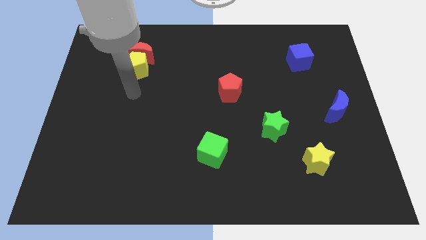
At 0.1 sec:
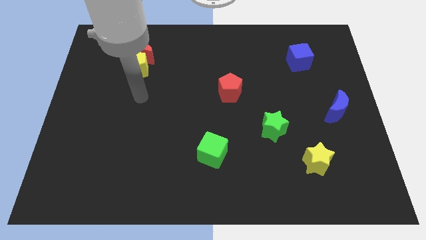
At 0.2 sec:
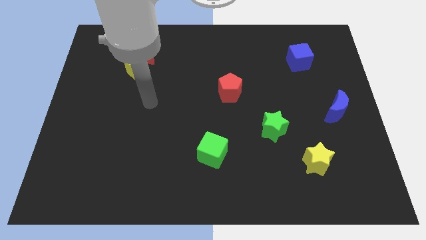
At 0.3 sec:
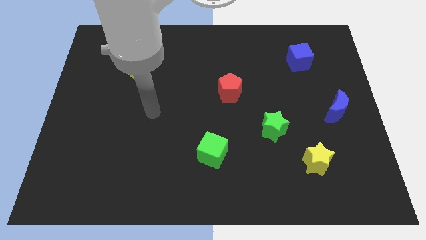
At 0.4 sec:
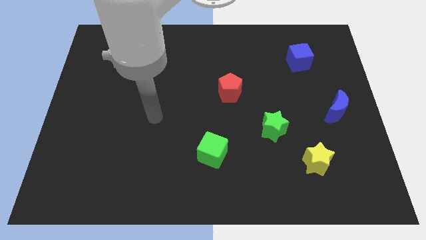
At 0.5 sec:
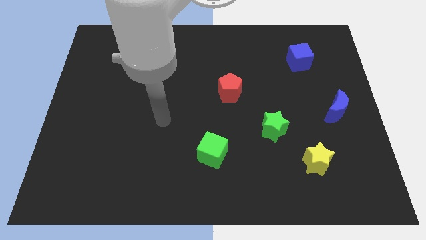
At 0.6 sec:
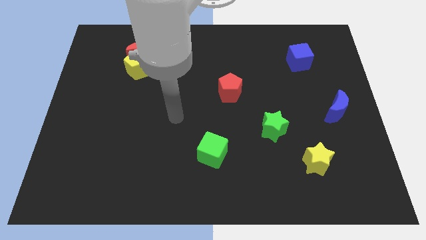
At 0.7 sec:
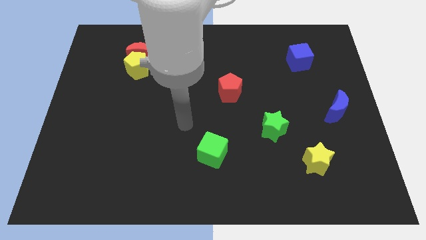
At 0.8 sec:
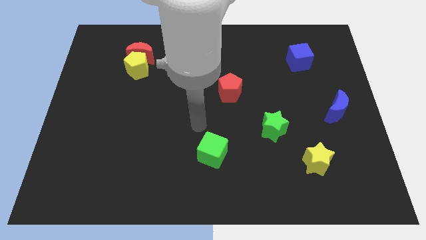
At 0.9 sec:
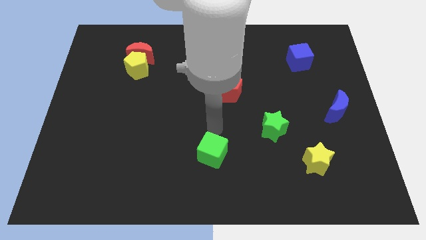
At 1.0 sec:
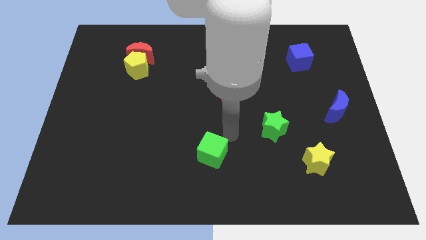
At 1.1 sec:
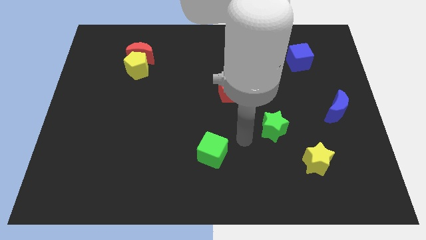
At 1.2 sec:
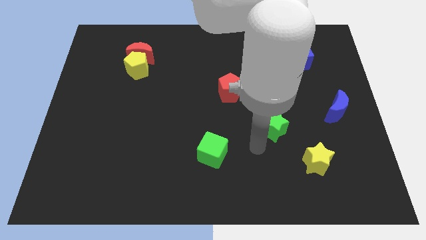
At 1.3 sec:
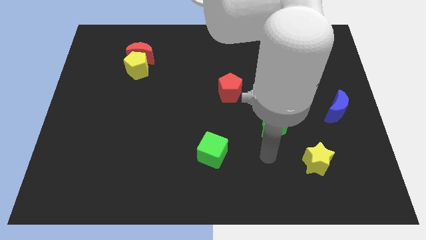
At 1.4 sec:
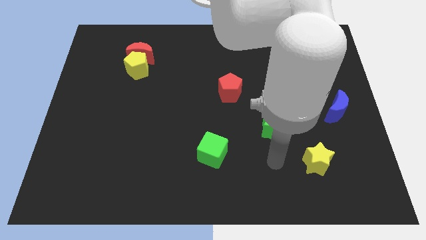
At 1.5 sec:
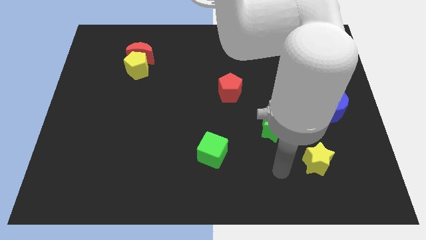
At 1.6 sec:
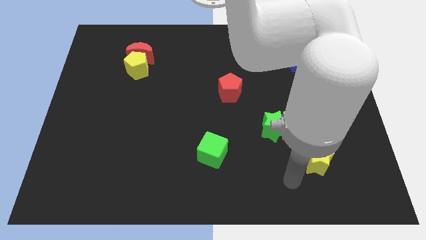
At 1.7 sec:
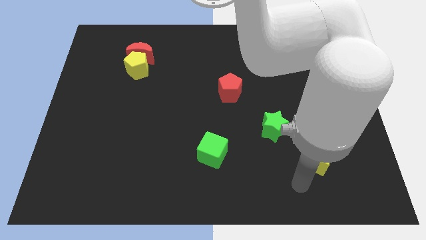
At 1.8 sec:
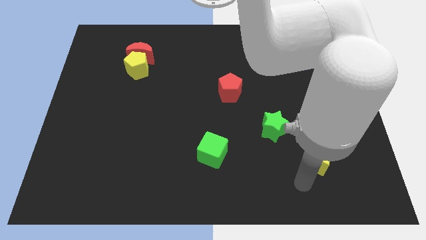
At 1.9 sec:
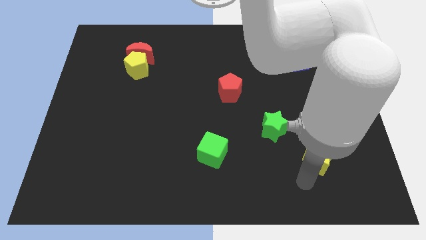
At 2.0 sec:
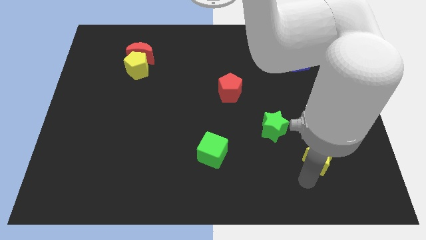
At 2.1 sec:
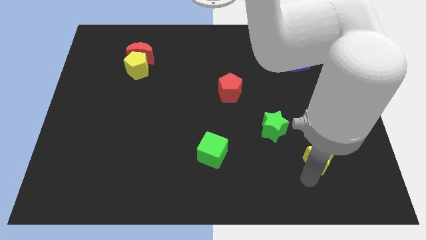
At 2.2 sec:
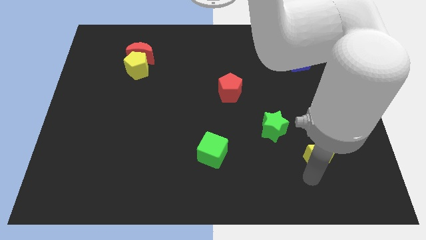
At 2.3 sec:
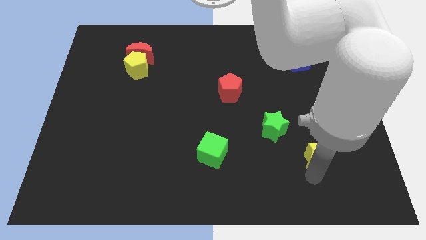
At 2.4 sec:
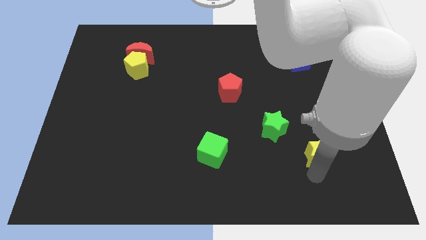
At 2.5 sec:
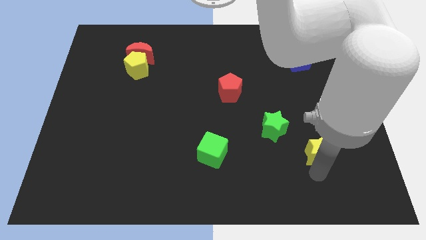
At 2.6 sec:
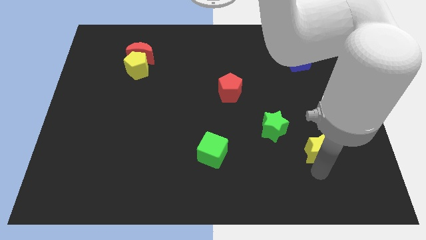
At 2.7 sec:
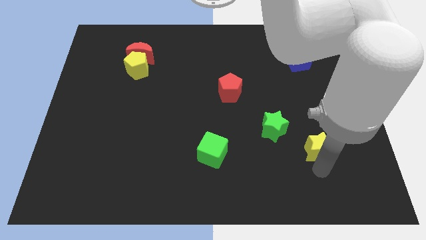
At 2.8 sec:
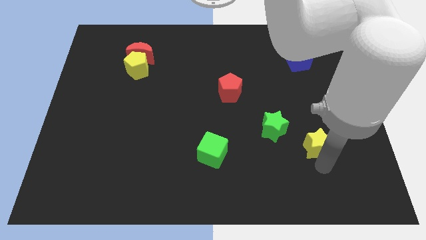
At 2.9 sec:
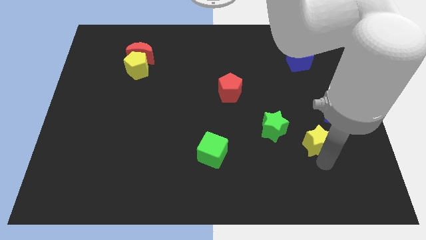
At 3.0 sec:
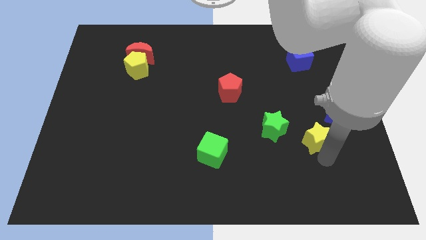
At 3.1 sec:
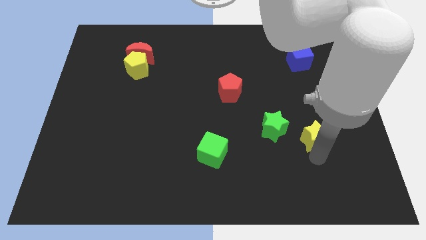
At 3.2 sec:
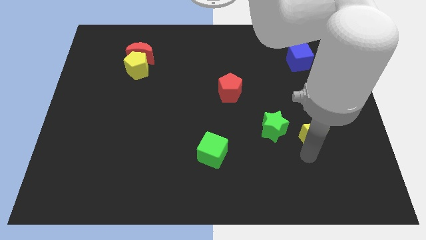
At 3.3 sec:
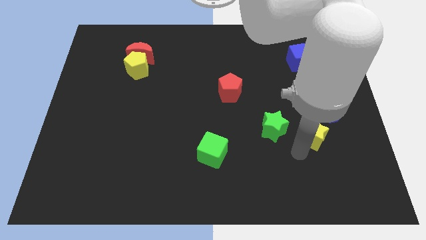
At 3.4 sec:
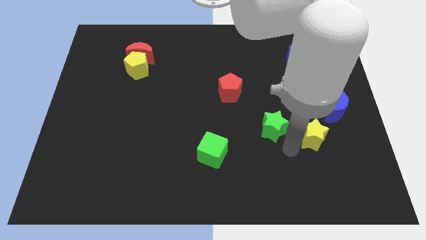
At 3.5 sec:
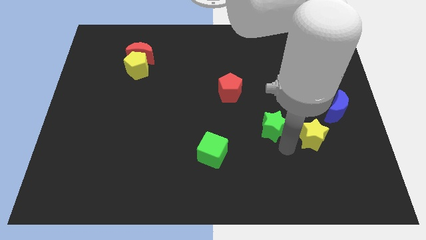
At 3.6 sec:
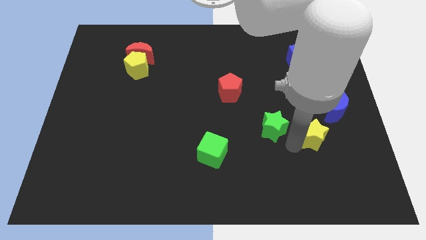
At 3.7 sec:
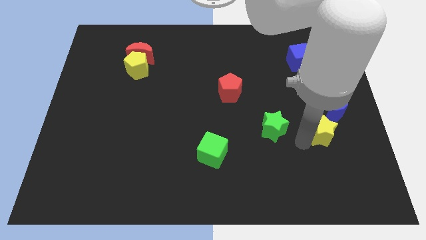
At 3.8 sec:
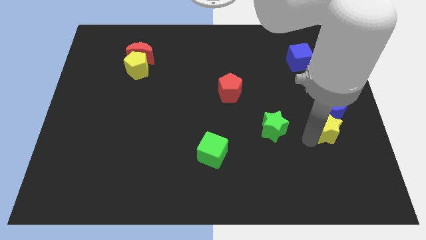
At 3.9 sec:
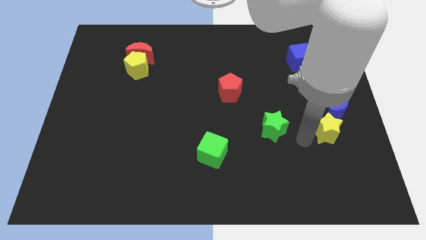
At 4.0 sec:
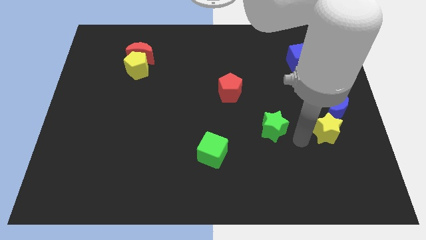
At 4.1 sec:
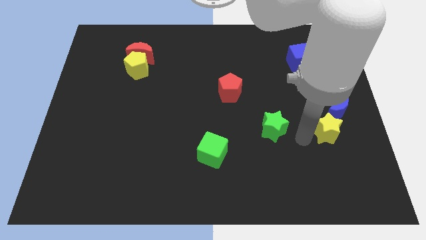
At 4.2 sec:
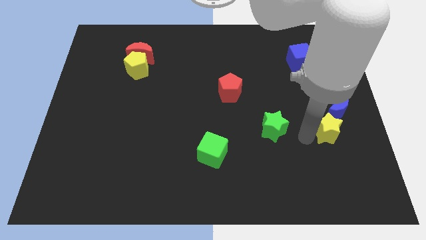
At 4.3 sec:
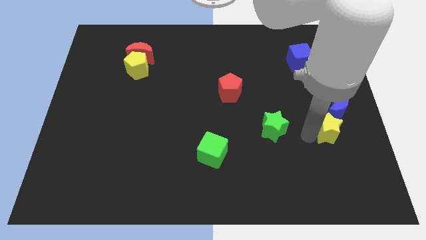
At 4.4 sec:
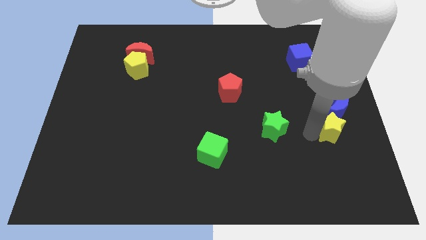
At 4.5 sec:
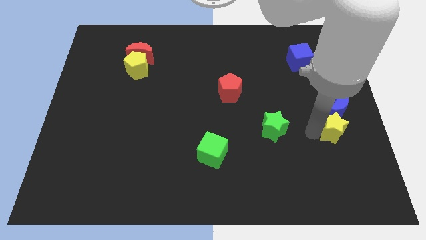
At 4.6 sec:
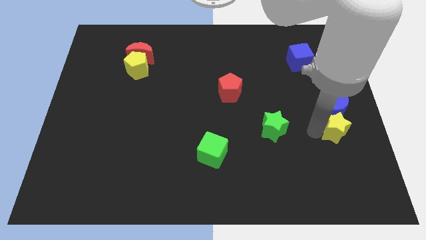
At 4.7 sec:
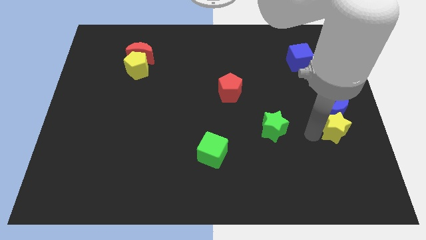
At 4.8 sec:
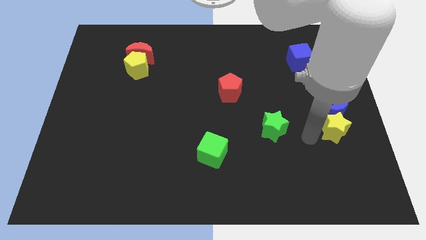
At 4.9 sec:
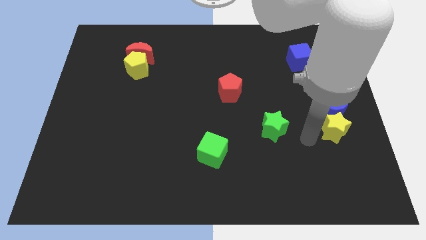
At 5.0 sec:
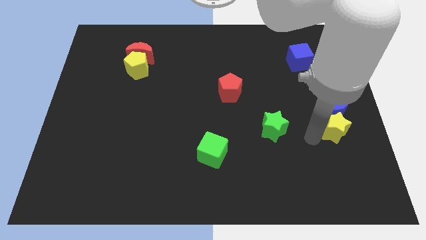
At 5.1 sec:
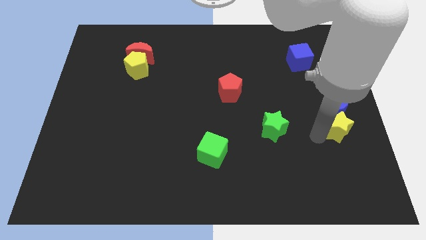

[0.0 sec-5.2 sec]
push the yellow star to the right side of the board

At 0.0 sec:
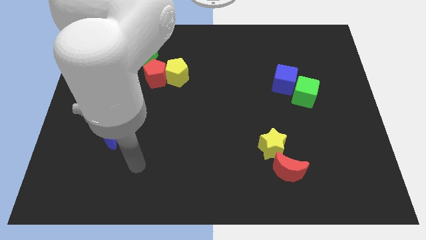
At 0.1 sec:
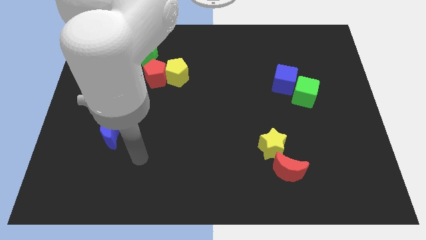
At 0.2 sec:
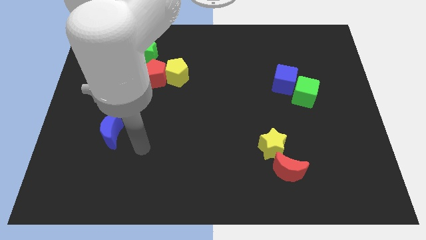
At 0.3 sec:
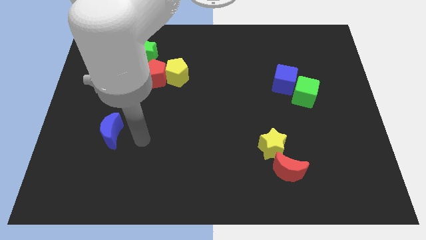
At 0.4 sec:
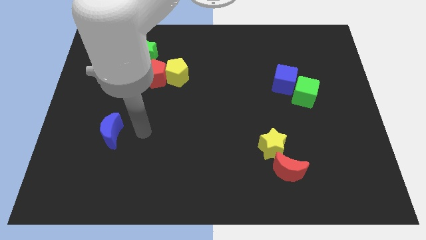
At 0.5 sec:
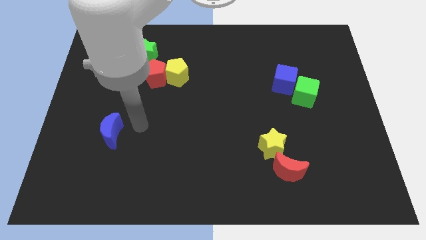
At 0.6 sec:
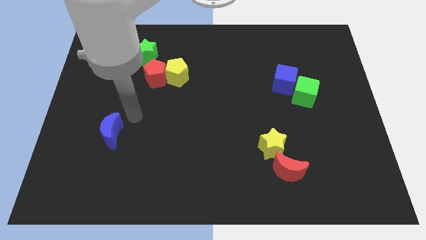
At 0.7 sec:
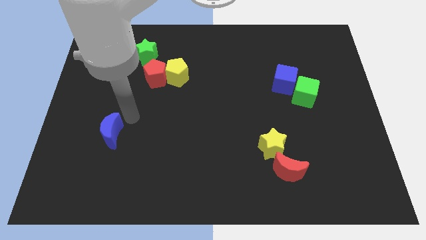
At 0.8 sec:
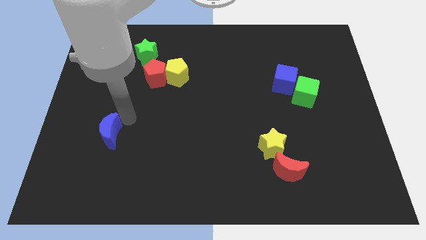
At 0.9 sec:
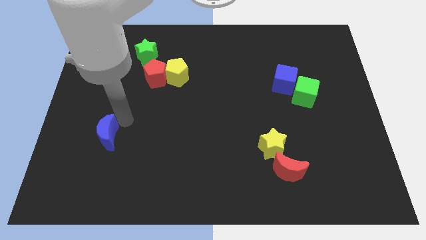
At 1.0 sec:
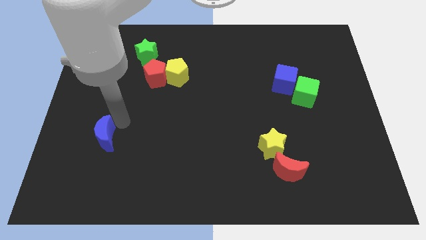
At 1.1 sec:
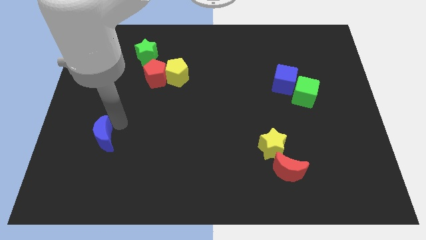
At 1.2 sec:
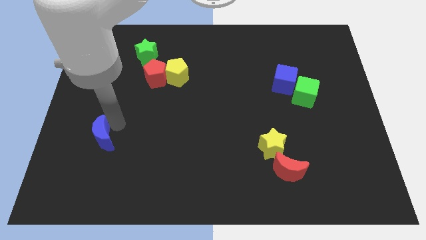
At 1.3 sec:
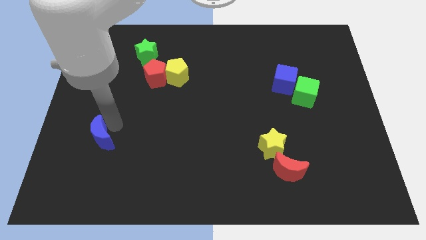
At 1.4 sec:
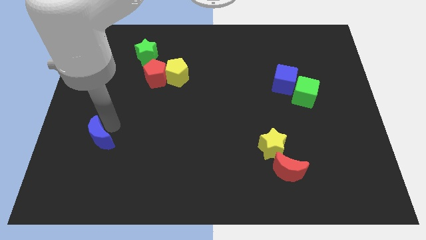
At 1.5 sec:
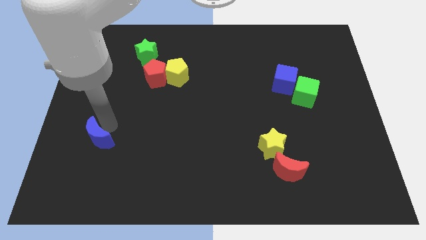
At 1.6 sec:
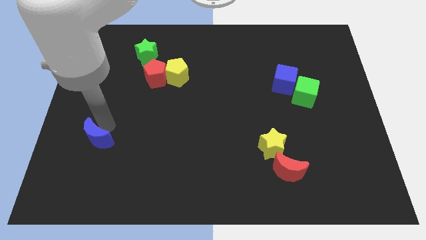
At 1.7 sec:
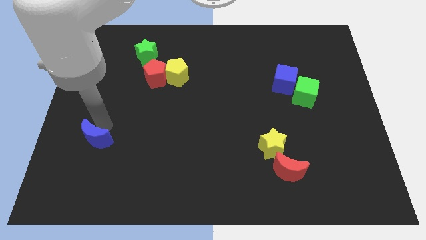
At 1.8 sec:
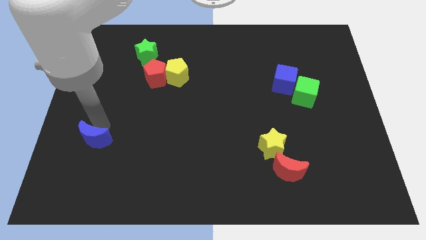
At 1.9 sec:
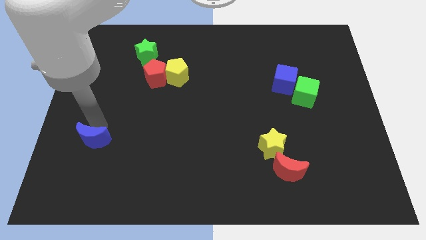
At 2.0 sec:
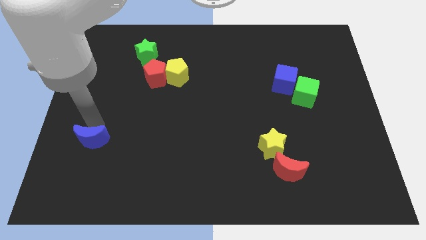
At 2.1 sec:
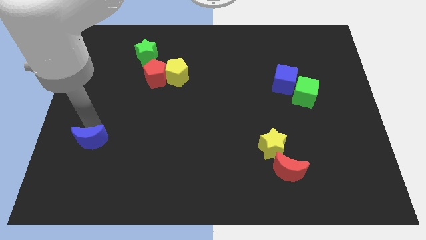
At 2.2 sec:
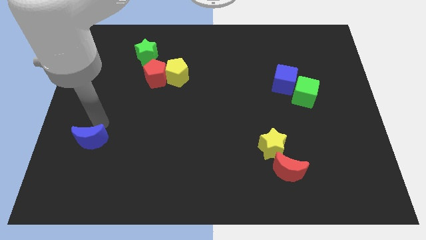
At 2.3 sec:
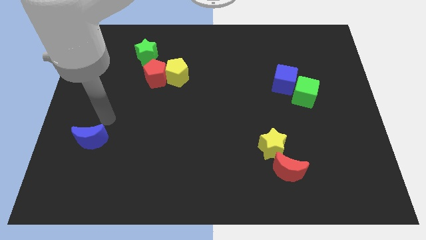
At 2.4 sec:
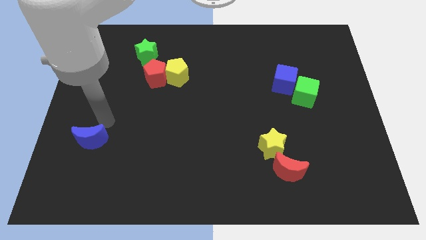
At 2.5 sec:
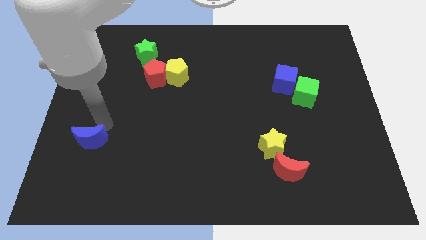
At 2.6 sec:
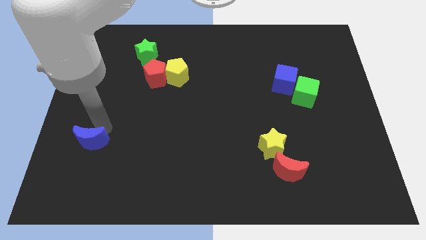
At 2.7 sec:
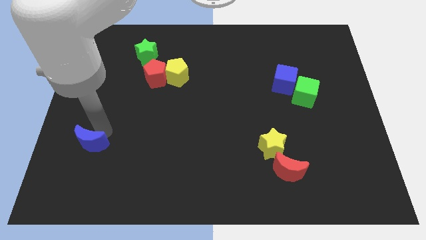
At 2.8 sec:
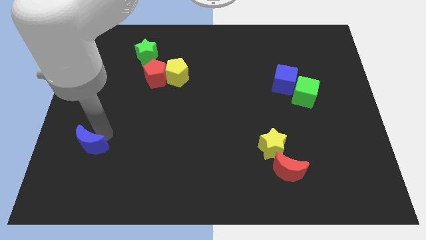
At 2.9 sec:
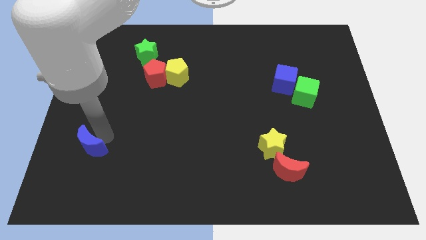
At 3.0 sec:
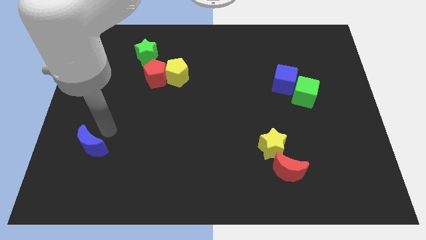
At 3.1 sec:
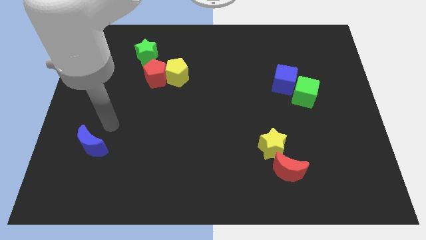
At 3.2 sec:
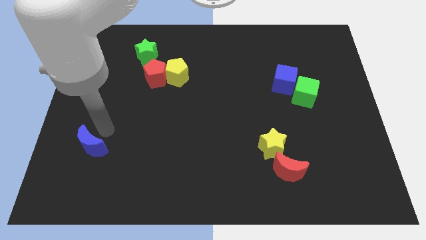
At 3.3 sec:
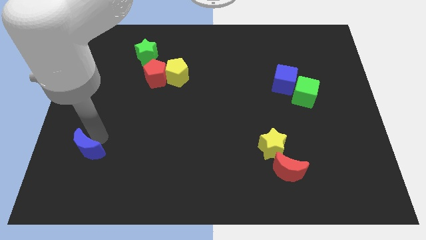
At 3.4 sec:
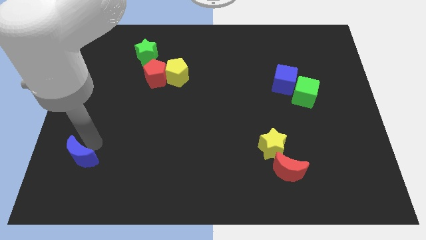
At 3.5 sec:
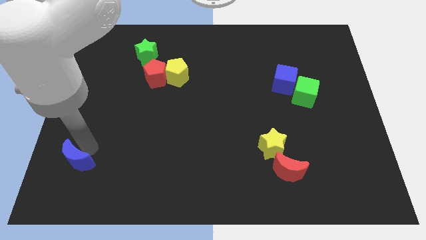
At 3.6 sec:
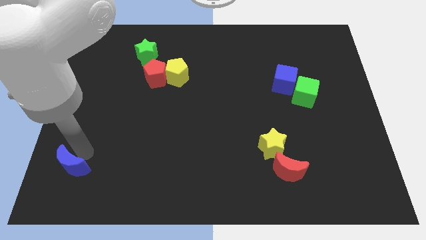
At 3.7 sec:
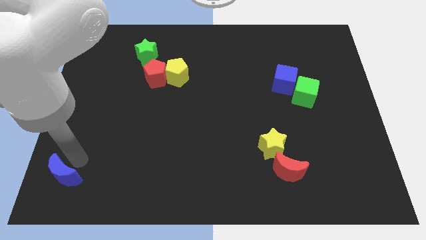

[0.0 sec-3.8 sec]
push the blue moon to the bottom left of the board
